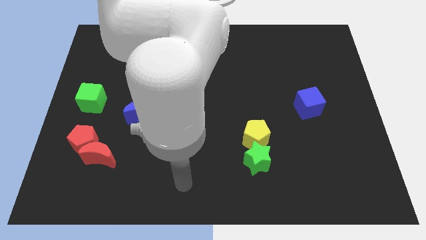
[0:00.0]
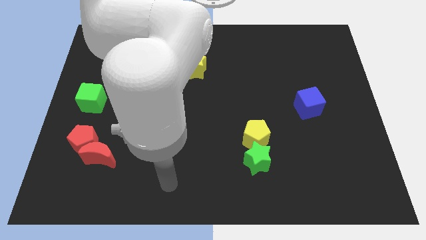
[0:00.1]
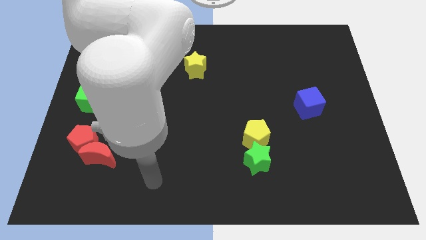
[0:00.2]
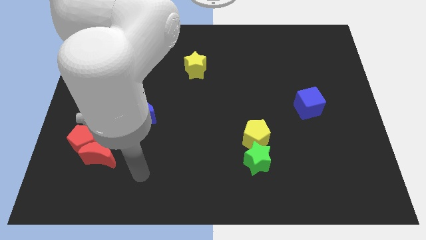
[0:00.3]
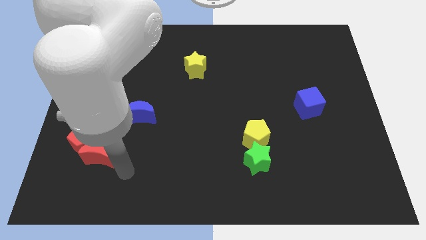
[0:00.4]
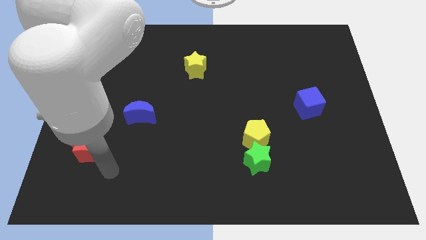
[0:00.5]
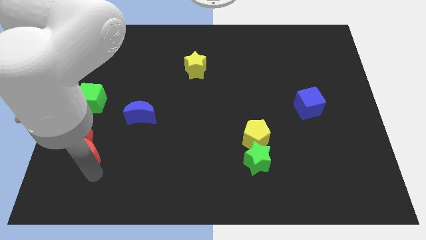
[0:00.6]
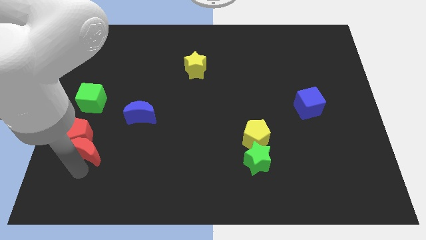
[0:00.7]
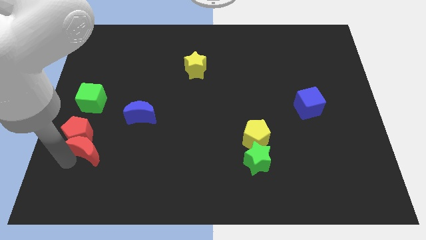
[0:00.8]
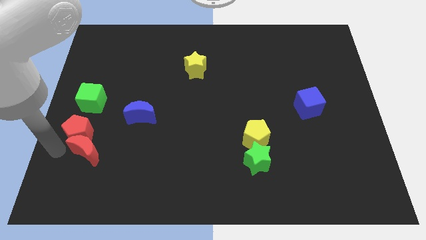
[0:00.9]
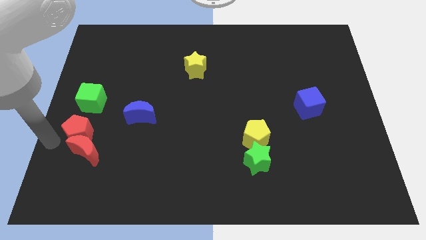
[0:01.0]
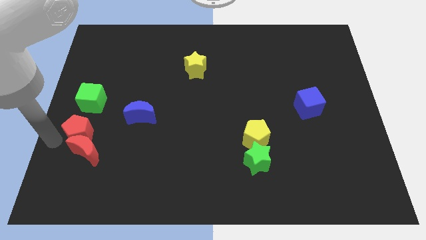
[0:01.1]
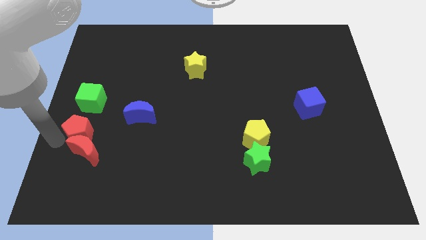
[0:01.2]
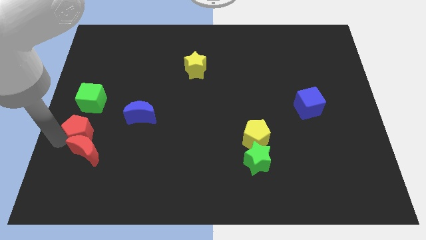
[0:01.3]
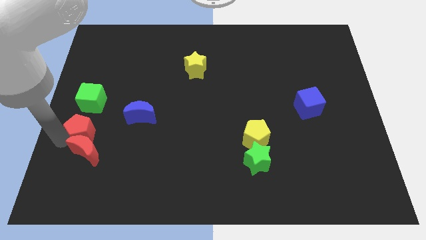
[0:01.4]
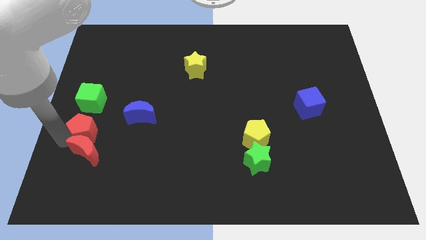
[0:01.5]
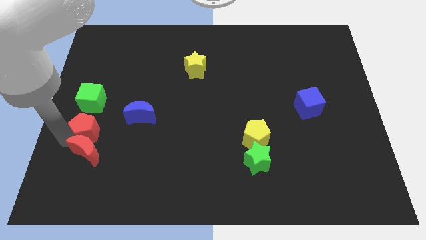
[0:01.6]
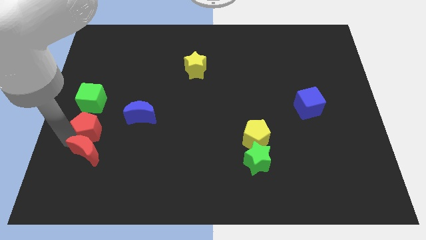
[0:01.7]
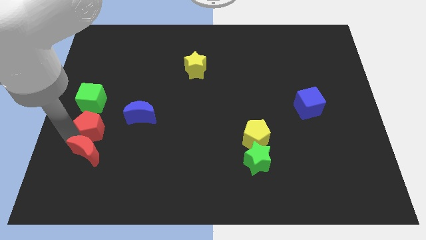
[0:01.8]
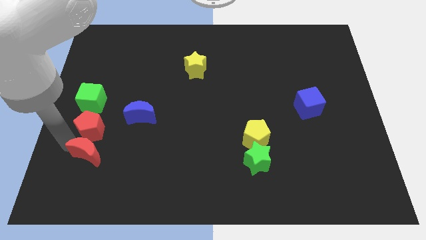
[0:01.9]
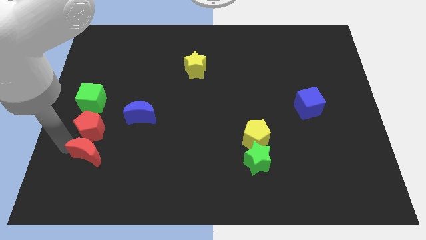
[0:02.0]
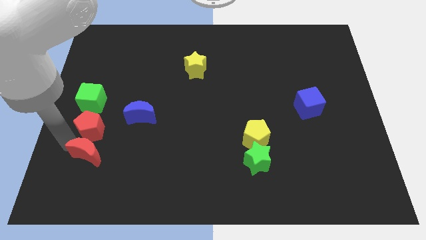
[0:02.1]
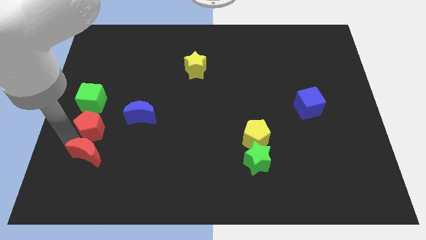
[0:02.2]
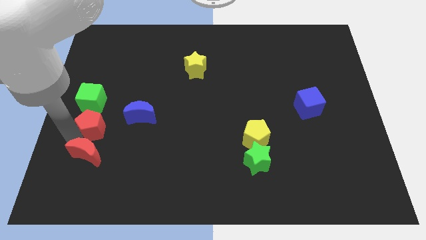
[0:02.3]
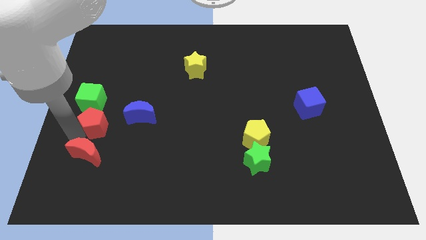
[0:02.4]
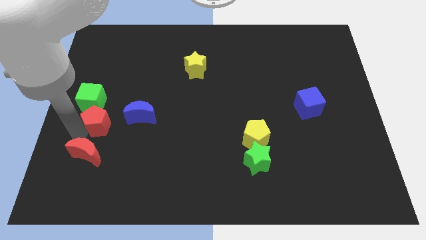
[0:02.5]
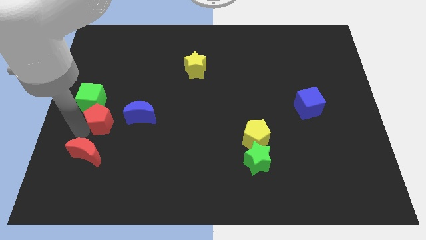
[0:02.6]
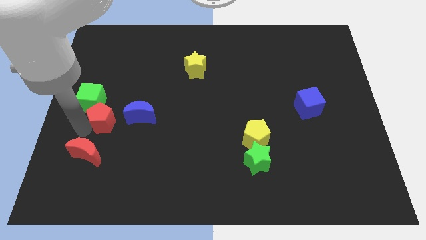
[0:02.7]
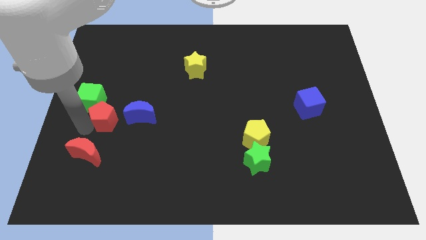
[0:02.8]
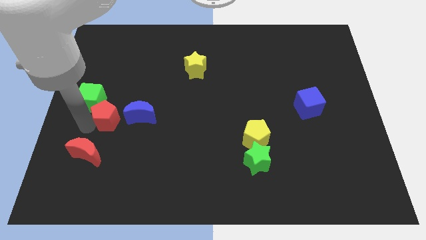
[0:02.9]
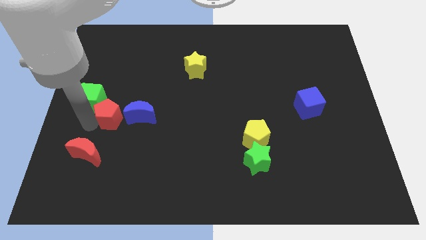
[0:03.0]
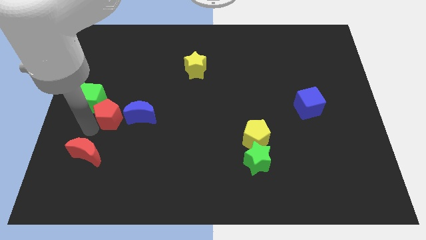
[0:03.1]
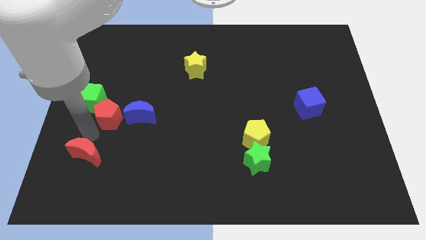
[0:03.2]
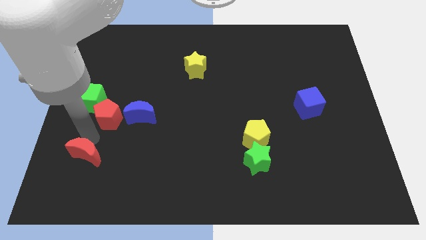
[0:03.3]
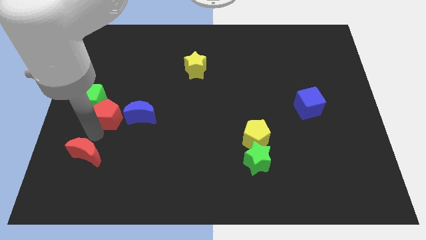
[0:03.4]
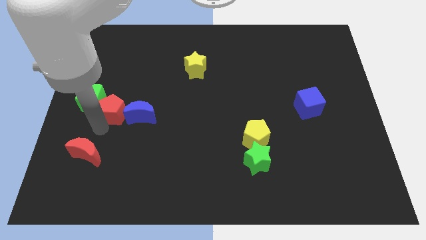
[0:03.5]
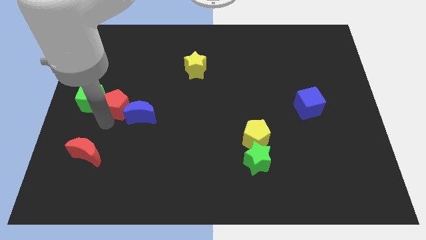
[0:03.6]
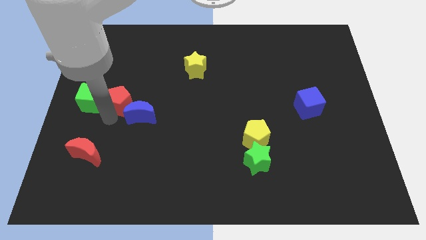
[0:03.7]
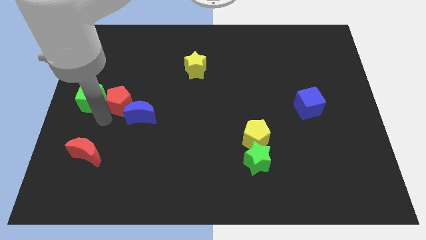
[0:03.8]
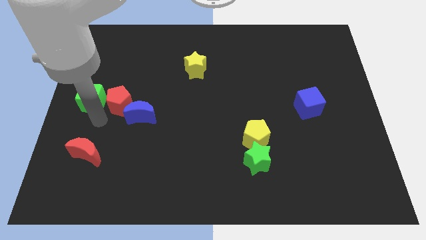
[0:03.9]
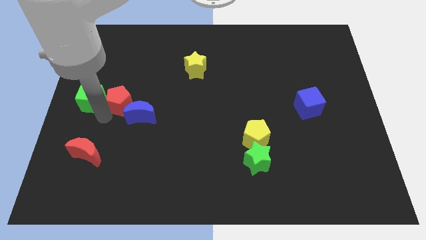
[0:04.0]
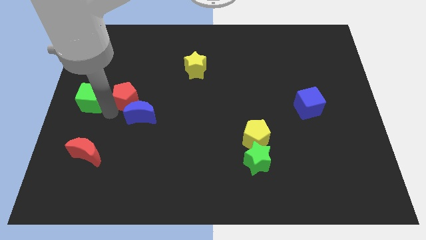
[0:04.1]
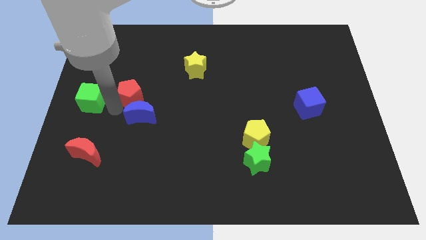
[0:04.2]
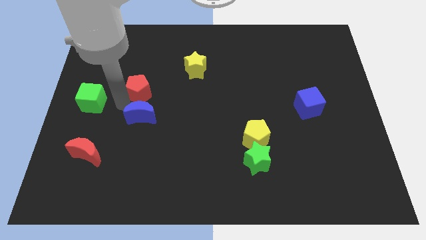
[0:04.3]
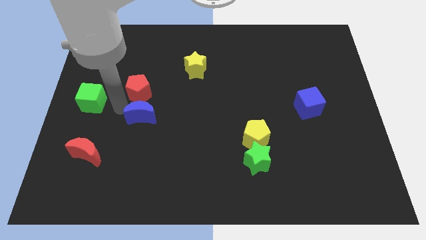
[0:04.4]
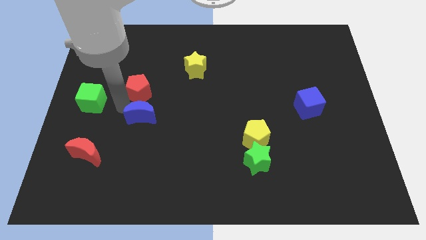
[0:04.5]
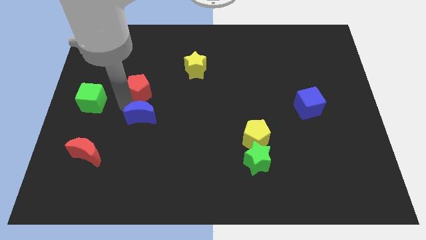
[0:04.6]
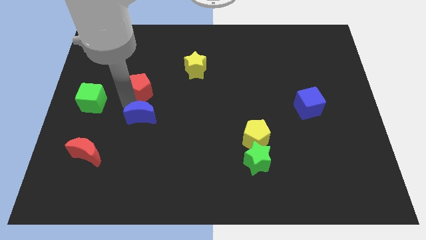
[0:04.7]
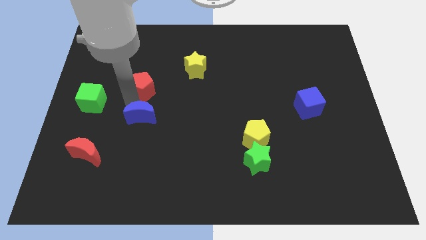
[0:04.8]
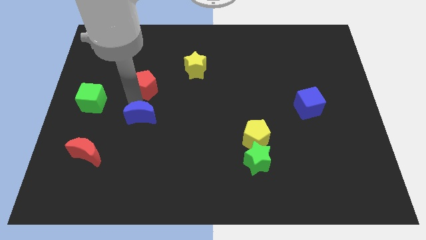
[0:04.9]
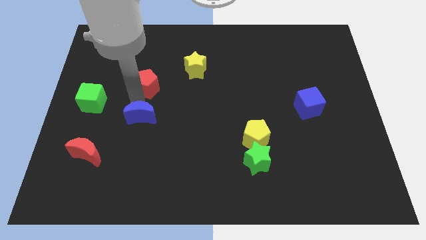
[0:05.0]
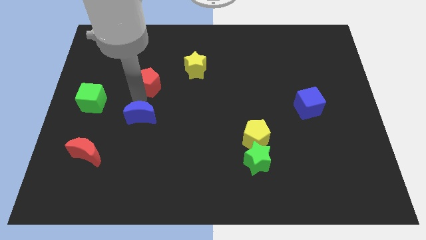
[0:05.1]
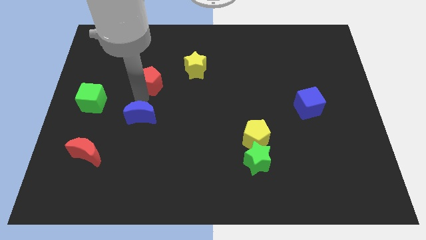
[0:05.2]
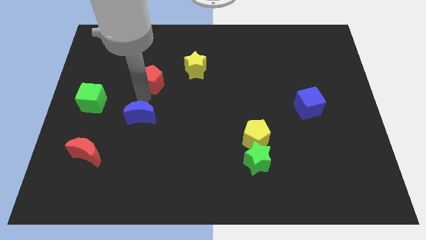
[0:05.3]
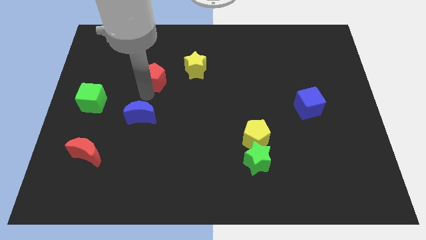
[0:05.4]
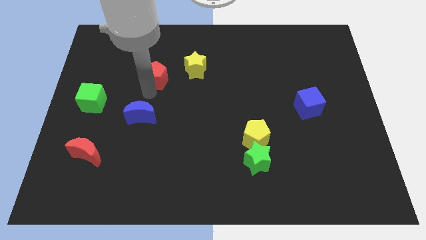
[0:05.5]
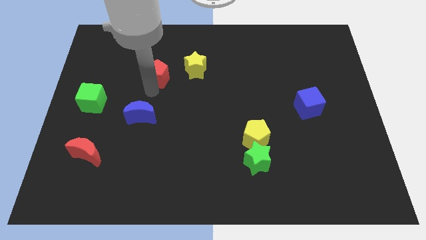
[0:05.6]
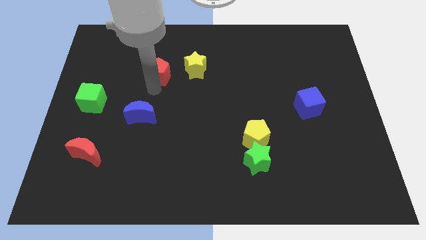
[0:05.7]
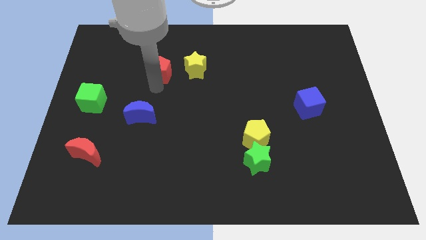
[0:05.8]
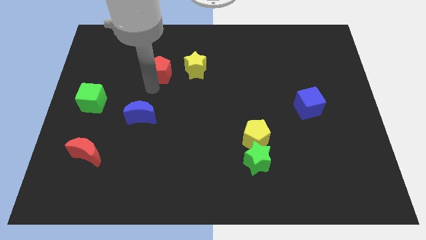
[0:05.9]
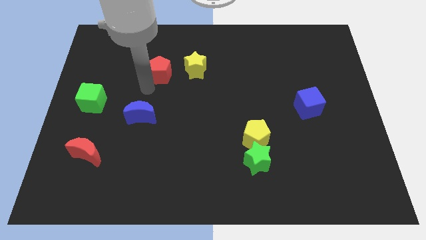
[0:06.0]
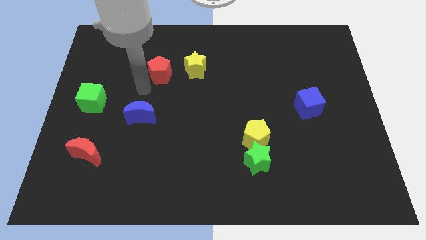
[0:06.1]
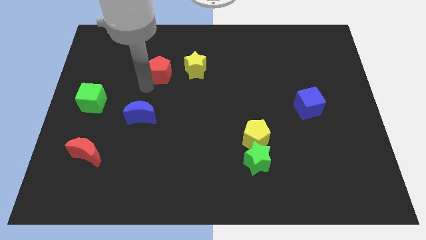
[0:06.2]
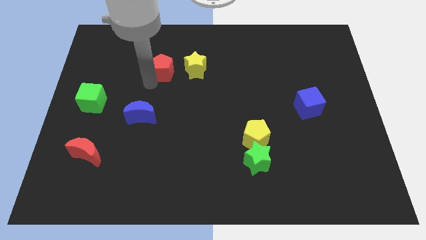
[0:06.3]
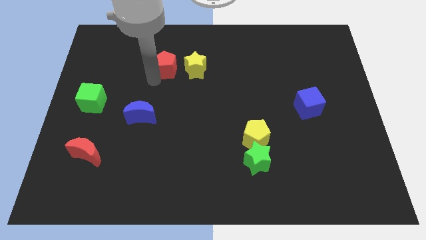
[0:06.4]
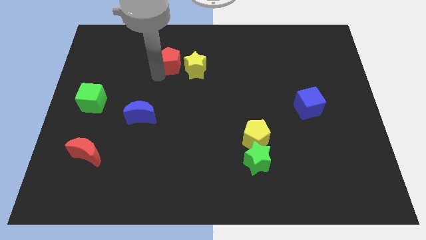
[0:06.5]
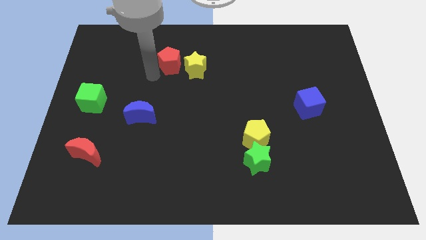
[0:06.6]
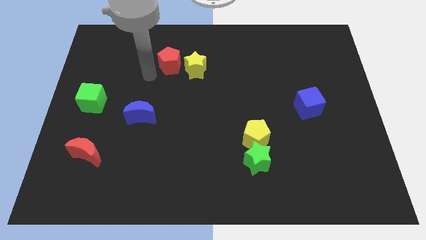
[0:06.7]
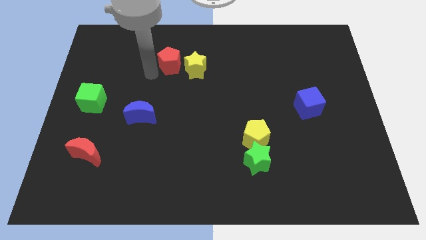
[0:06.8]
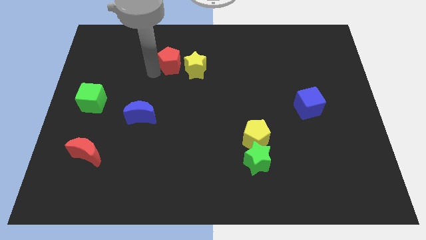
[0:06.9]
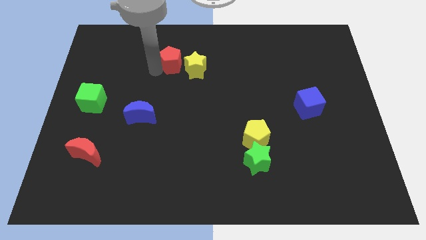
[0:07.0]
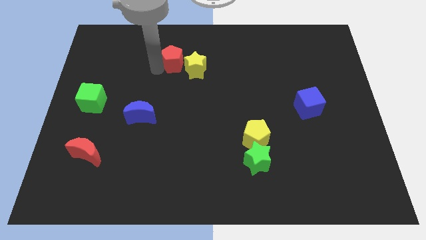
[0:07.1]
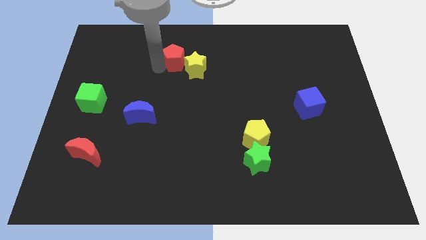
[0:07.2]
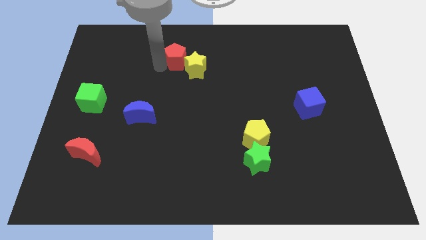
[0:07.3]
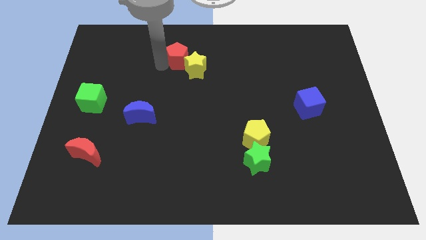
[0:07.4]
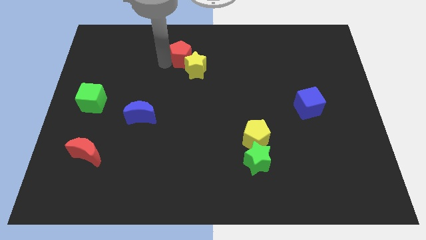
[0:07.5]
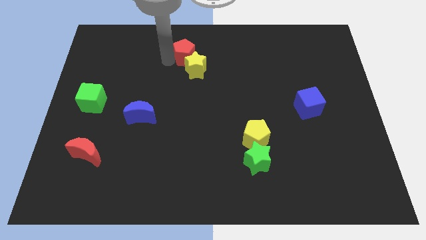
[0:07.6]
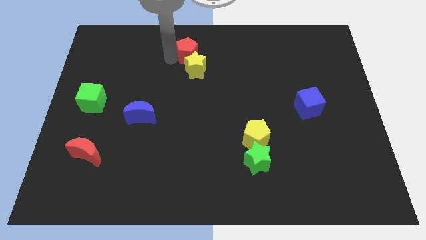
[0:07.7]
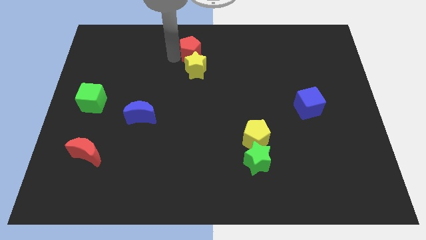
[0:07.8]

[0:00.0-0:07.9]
slide the red pentagon to the top
